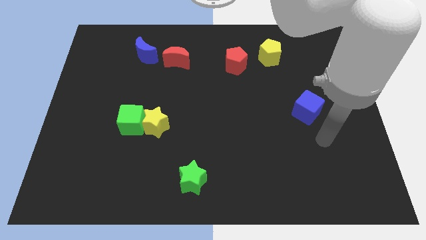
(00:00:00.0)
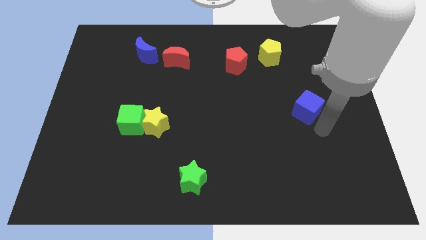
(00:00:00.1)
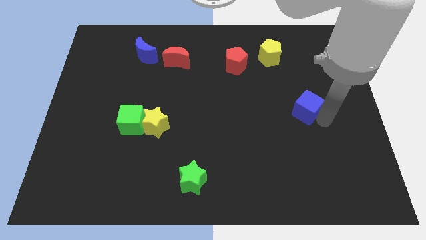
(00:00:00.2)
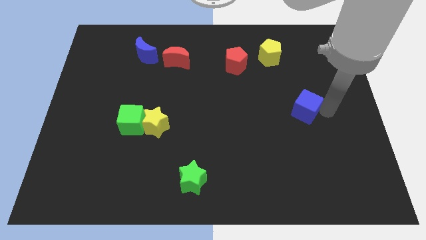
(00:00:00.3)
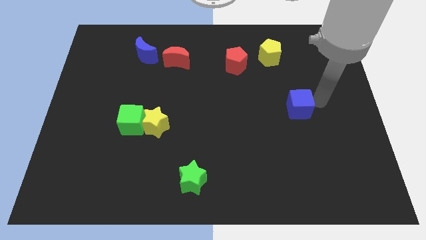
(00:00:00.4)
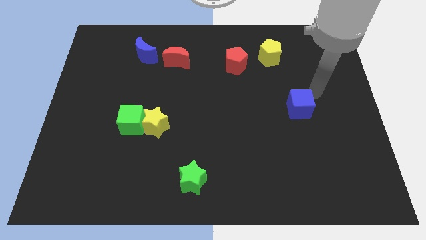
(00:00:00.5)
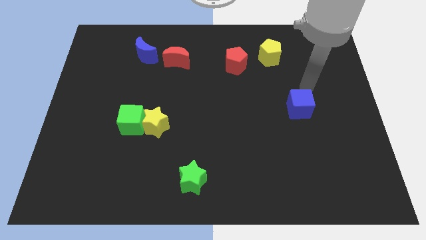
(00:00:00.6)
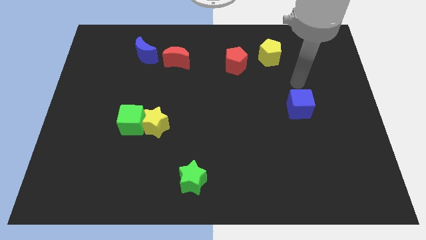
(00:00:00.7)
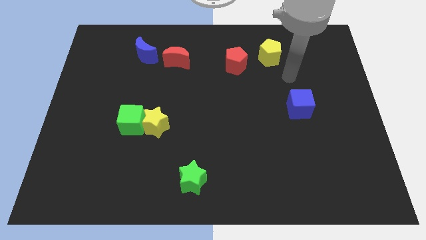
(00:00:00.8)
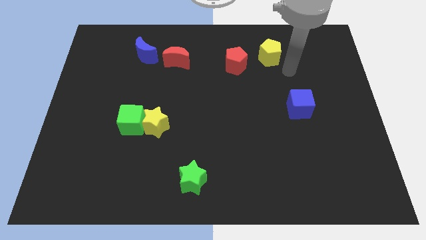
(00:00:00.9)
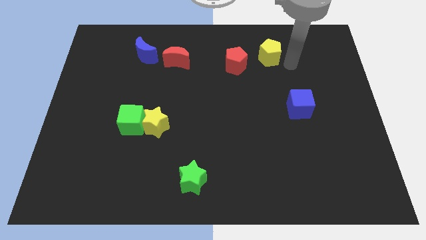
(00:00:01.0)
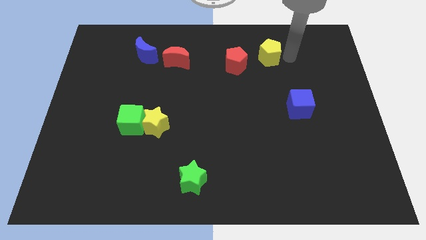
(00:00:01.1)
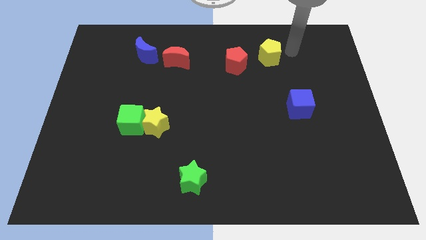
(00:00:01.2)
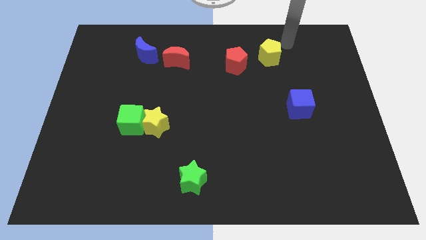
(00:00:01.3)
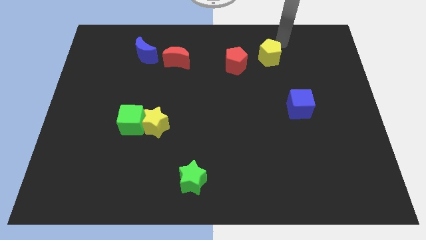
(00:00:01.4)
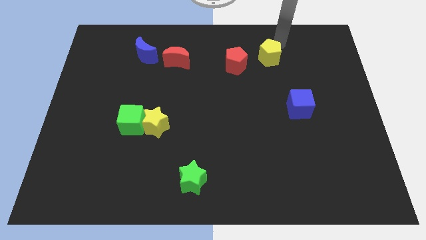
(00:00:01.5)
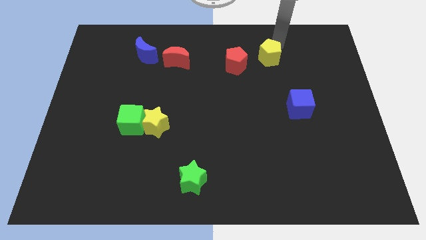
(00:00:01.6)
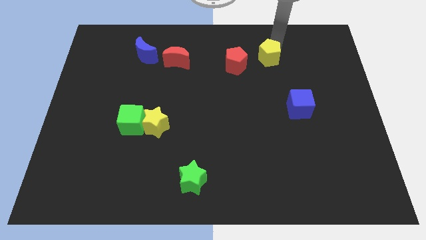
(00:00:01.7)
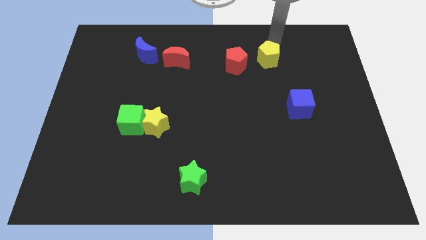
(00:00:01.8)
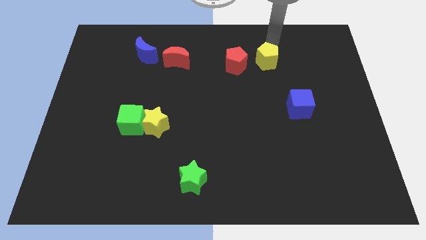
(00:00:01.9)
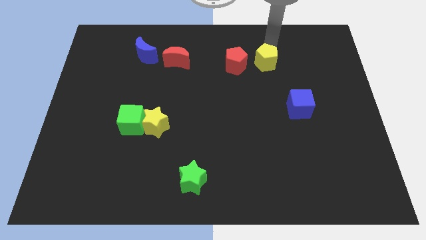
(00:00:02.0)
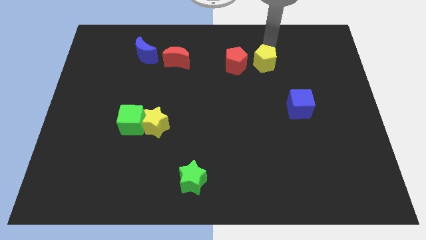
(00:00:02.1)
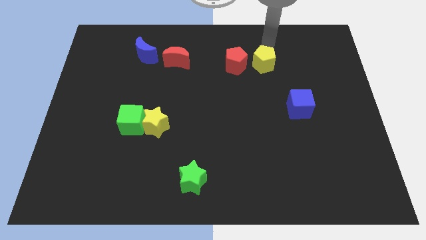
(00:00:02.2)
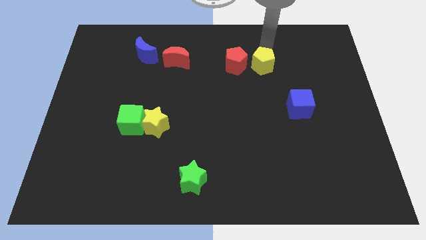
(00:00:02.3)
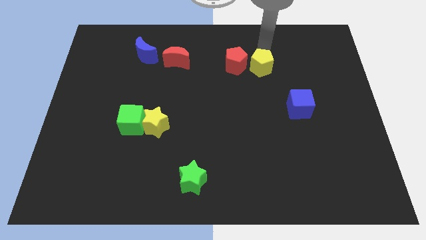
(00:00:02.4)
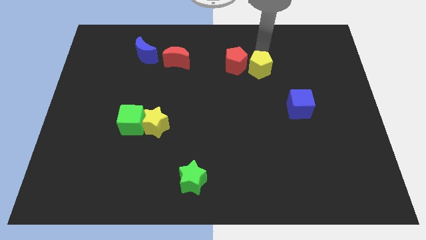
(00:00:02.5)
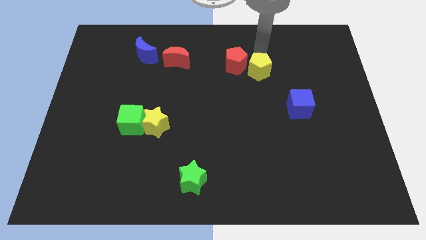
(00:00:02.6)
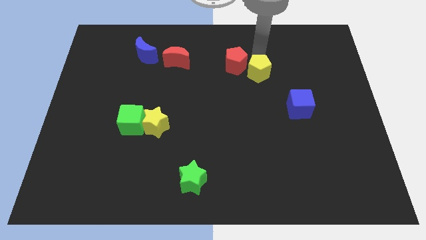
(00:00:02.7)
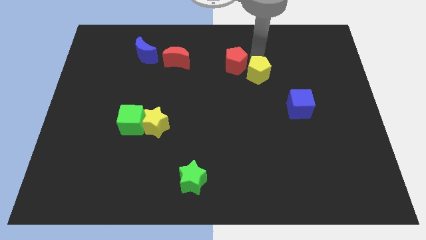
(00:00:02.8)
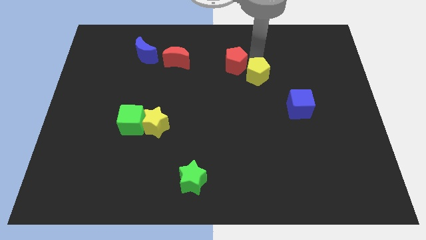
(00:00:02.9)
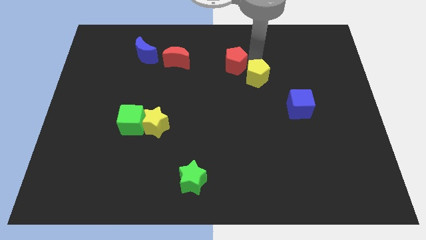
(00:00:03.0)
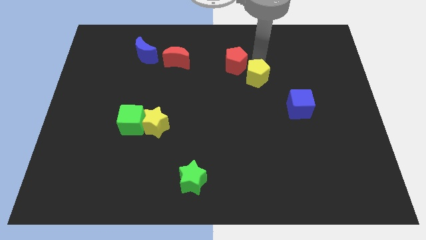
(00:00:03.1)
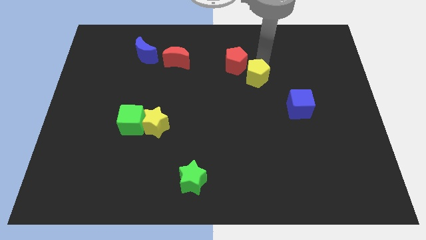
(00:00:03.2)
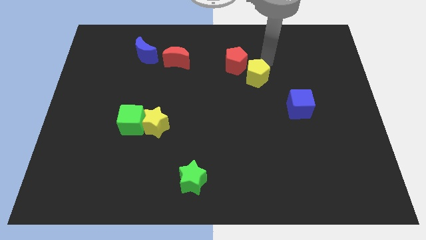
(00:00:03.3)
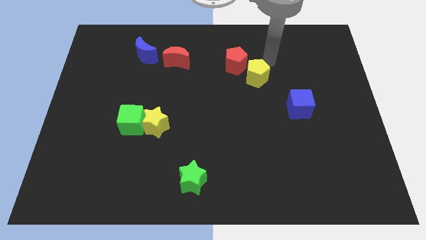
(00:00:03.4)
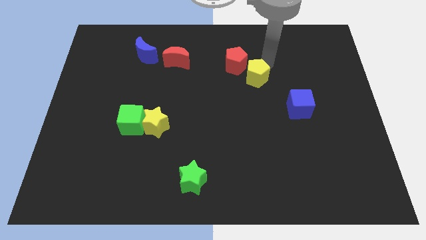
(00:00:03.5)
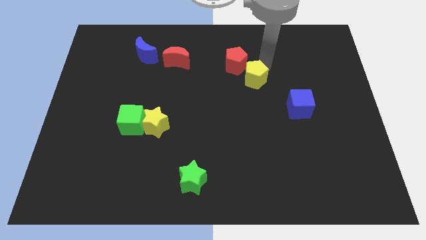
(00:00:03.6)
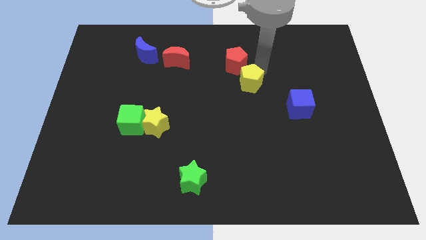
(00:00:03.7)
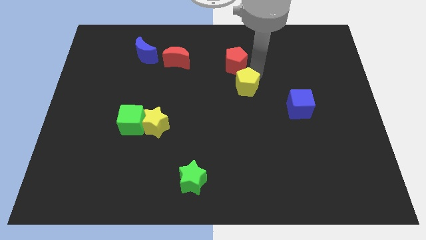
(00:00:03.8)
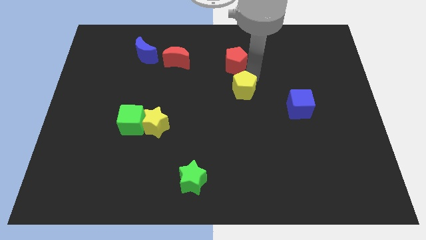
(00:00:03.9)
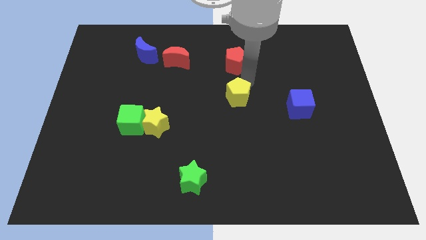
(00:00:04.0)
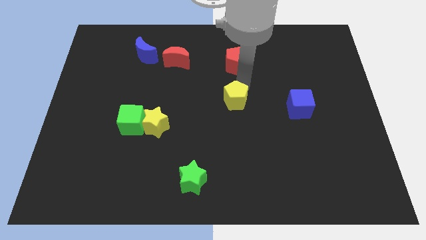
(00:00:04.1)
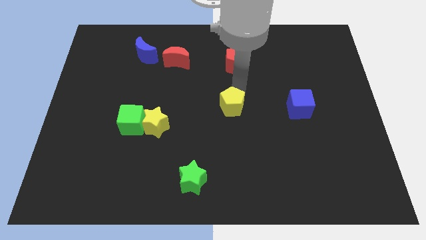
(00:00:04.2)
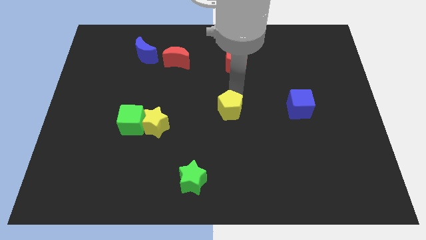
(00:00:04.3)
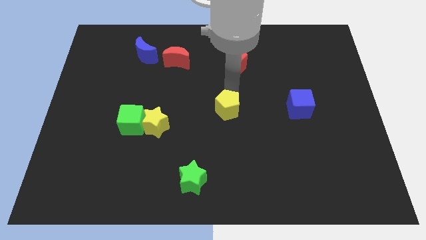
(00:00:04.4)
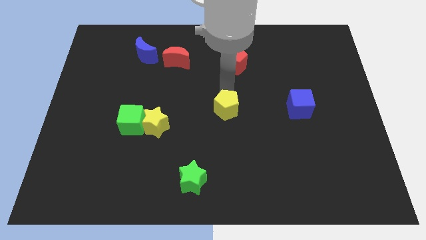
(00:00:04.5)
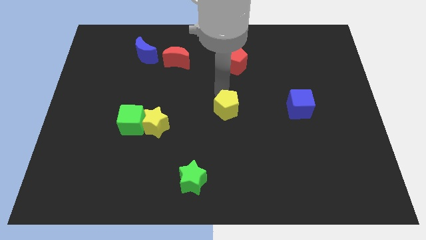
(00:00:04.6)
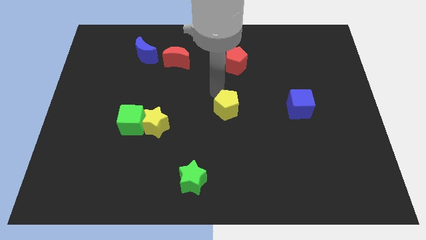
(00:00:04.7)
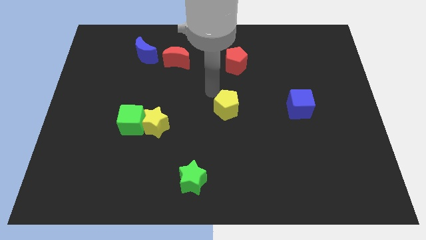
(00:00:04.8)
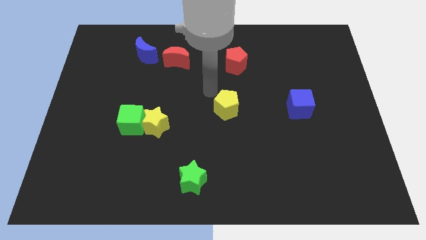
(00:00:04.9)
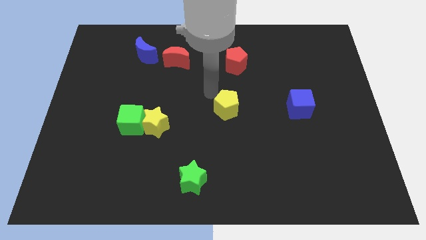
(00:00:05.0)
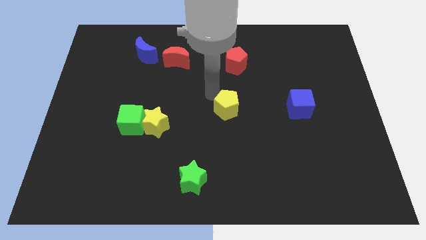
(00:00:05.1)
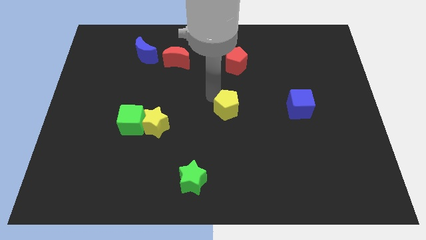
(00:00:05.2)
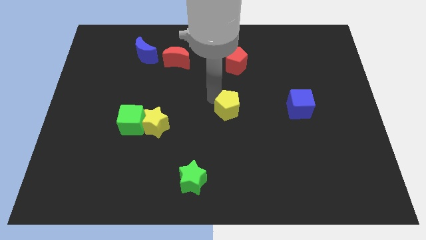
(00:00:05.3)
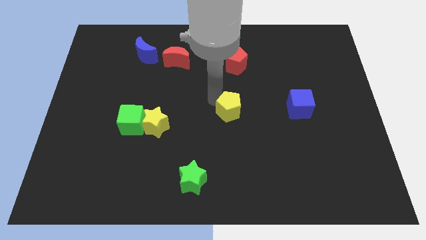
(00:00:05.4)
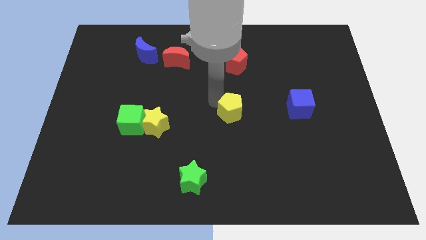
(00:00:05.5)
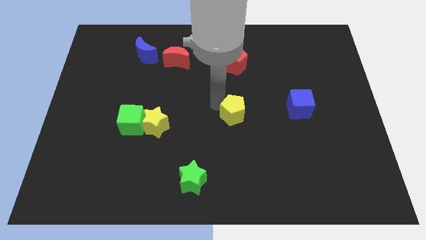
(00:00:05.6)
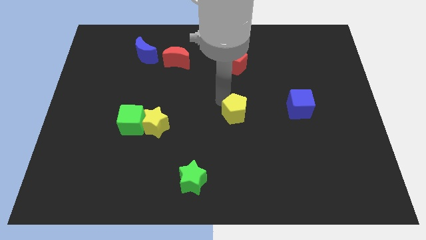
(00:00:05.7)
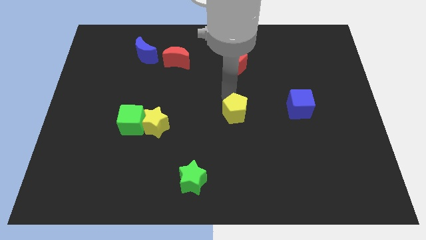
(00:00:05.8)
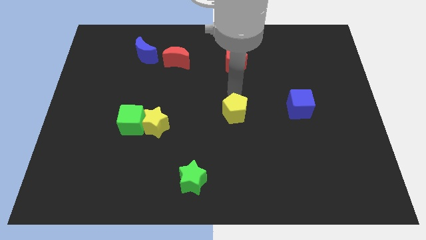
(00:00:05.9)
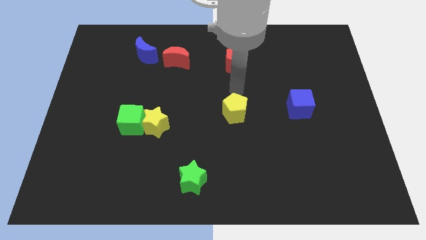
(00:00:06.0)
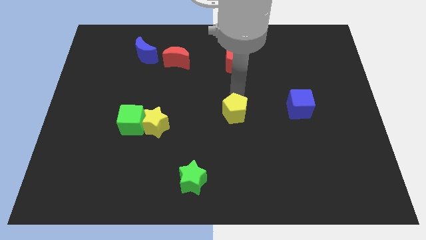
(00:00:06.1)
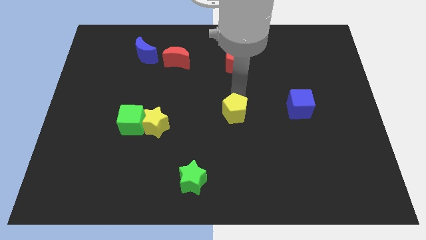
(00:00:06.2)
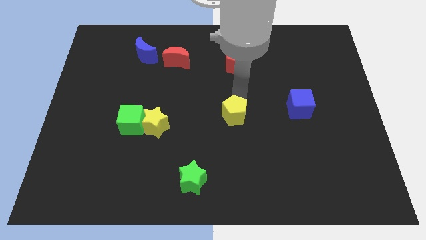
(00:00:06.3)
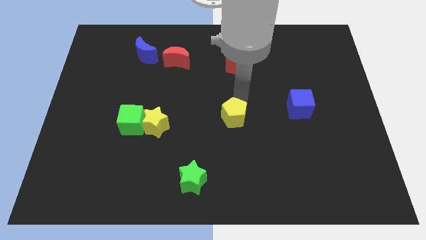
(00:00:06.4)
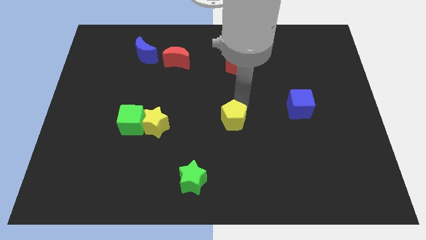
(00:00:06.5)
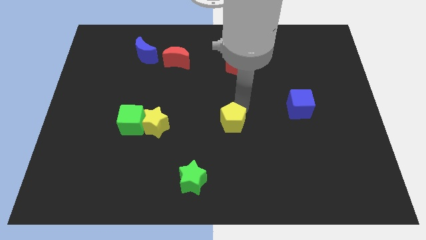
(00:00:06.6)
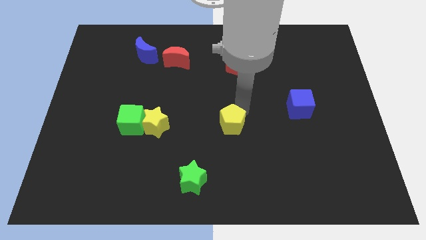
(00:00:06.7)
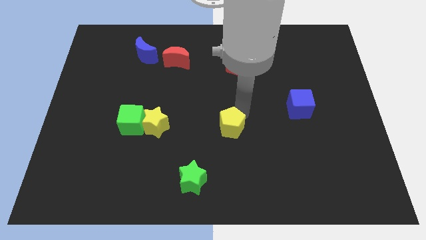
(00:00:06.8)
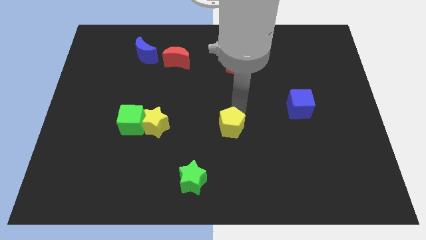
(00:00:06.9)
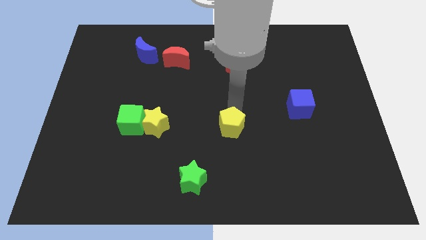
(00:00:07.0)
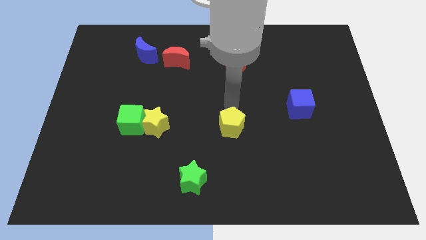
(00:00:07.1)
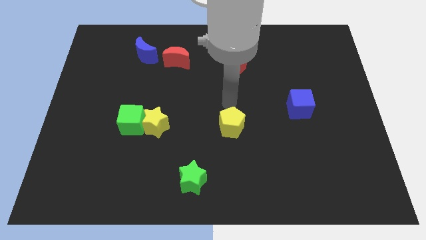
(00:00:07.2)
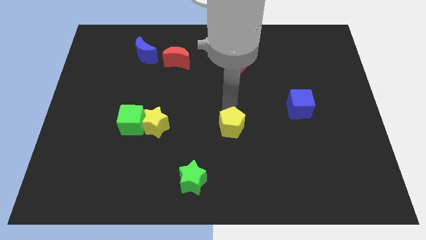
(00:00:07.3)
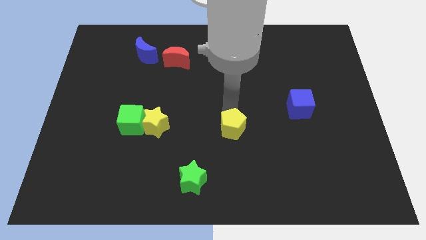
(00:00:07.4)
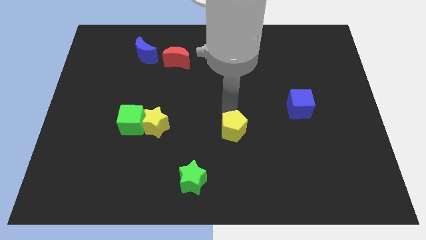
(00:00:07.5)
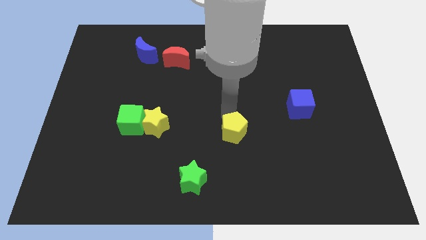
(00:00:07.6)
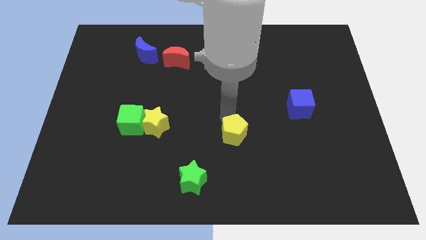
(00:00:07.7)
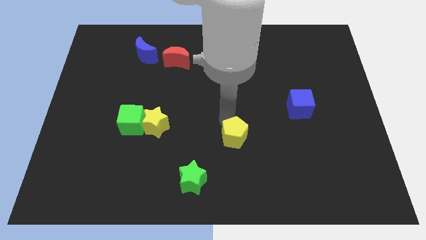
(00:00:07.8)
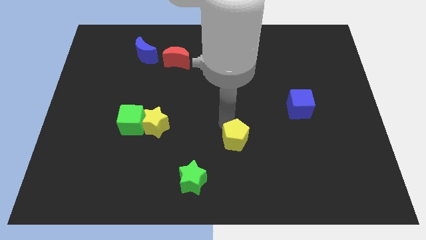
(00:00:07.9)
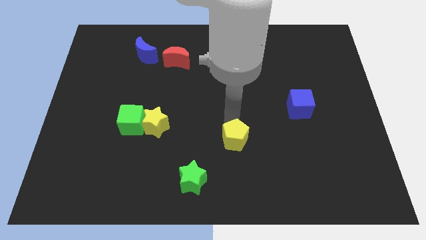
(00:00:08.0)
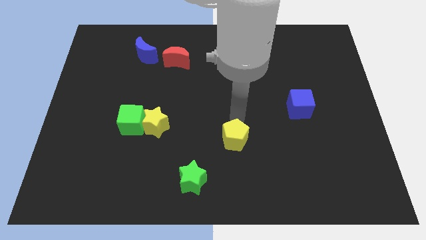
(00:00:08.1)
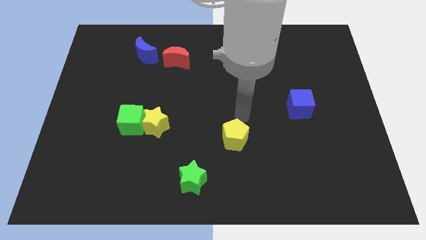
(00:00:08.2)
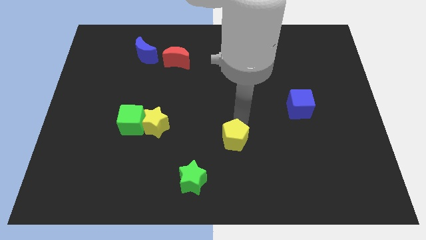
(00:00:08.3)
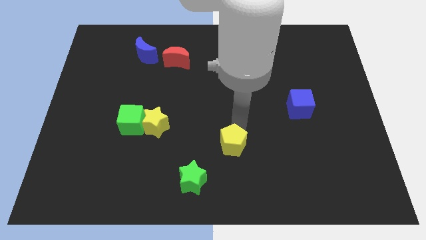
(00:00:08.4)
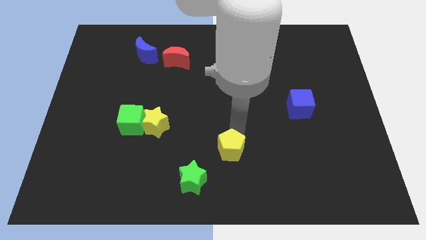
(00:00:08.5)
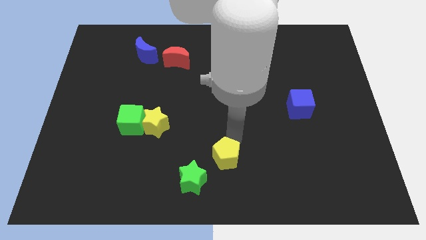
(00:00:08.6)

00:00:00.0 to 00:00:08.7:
slide the yellow pentagon to the bottom side
